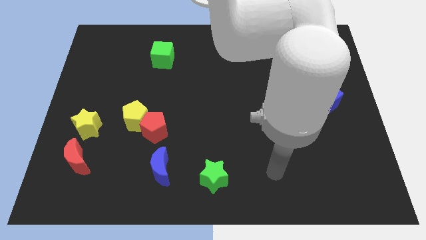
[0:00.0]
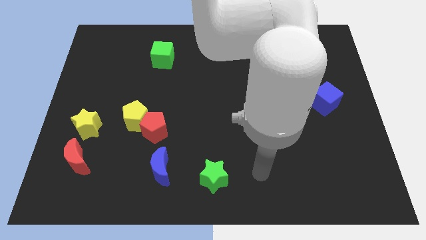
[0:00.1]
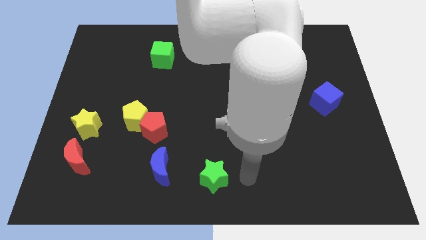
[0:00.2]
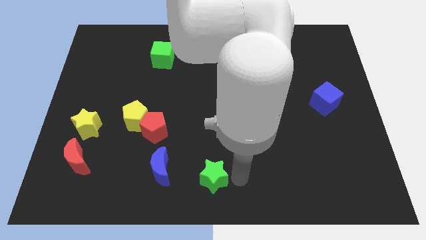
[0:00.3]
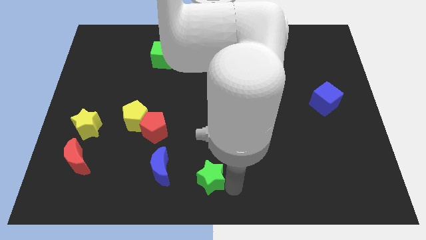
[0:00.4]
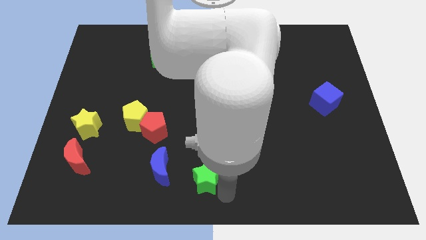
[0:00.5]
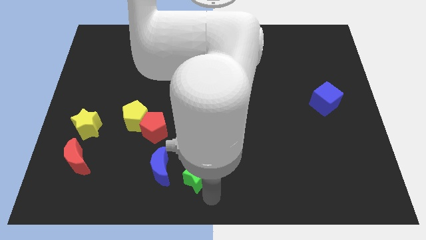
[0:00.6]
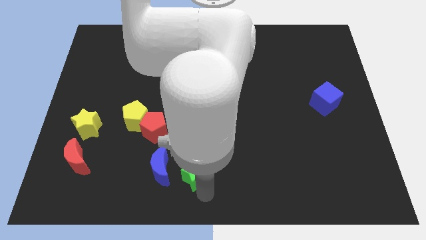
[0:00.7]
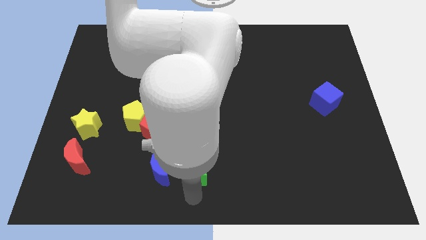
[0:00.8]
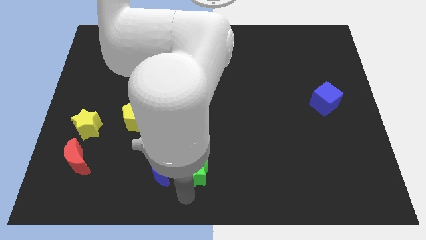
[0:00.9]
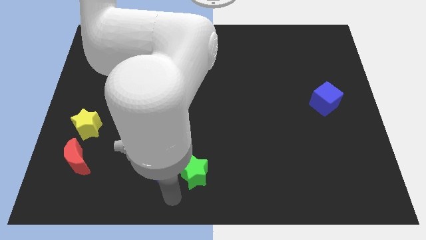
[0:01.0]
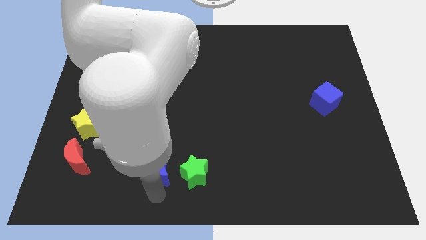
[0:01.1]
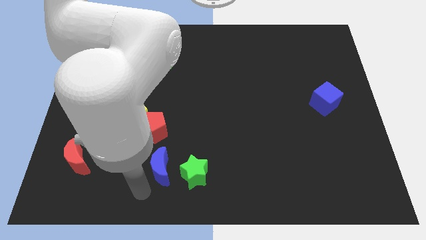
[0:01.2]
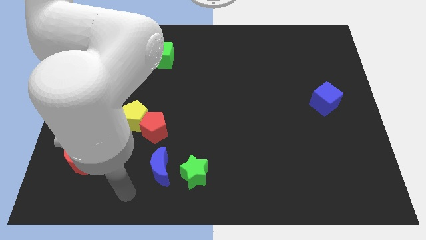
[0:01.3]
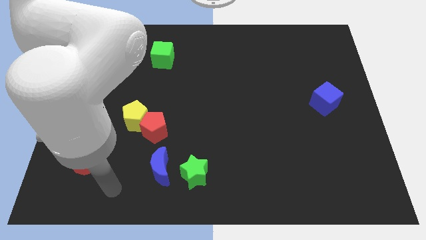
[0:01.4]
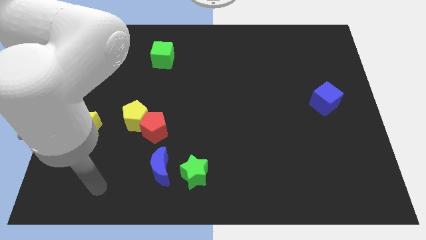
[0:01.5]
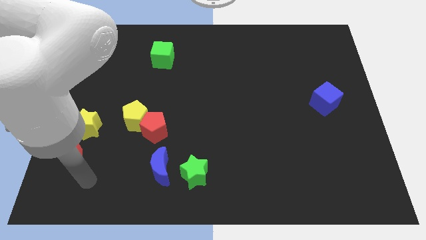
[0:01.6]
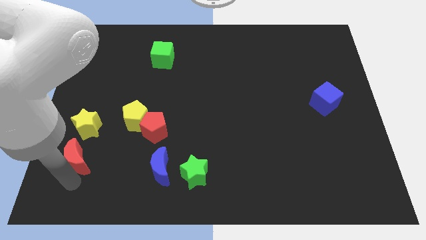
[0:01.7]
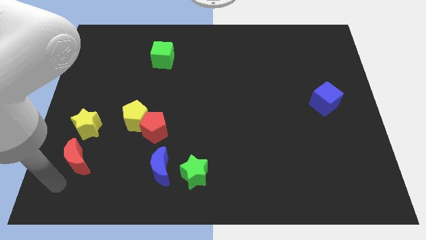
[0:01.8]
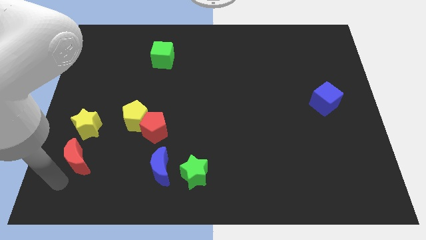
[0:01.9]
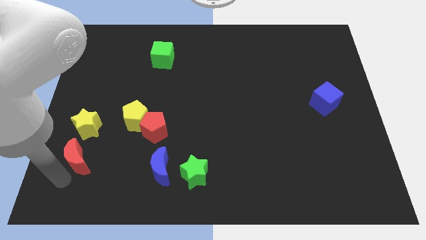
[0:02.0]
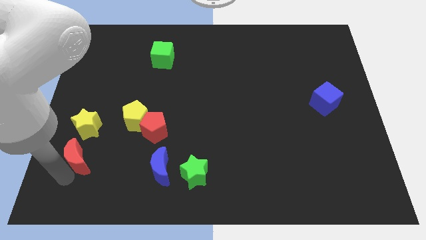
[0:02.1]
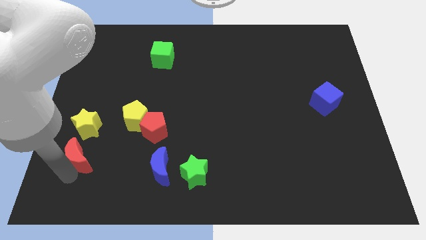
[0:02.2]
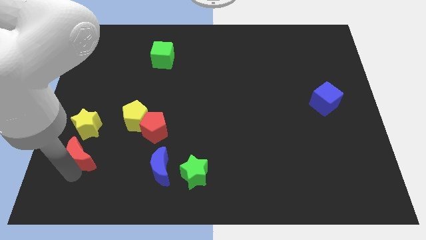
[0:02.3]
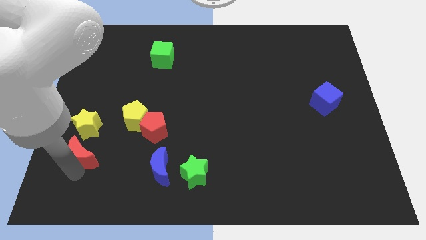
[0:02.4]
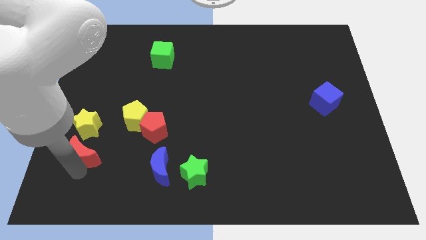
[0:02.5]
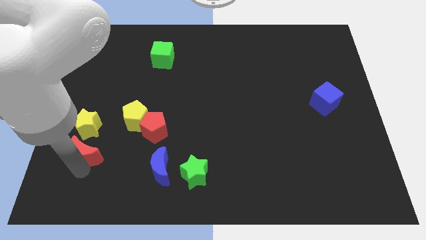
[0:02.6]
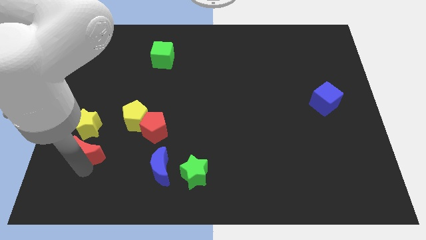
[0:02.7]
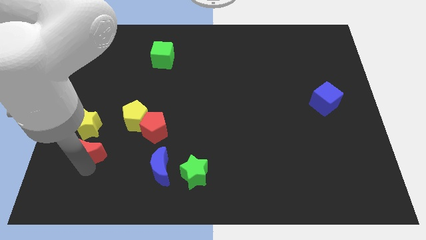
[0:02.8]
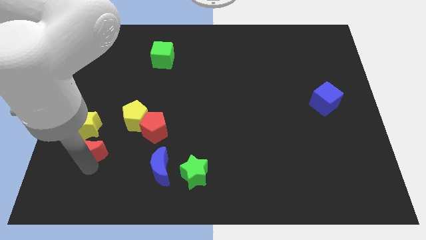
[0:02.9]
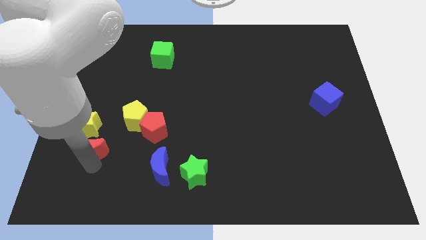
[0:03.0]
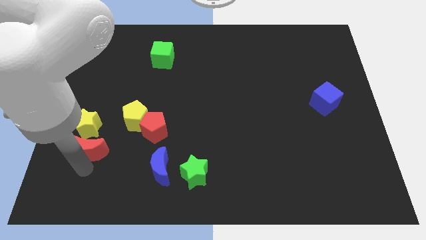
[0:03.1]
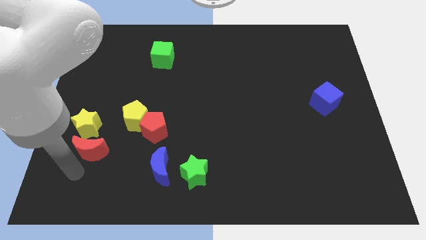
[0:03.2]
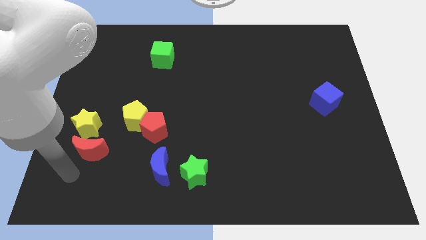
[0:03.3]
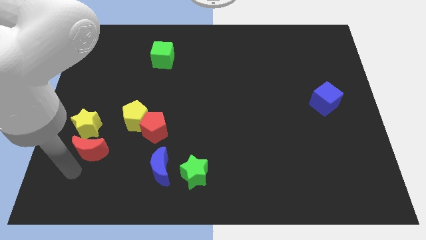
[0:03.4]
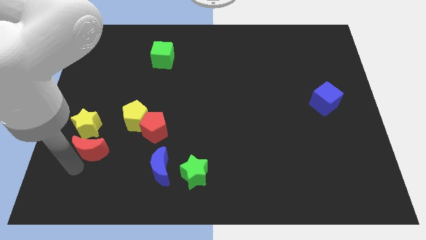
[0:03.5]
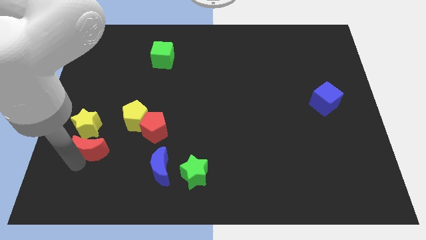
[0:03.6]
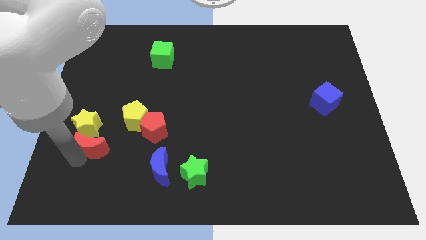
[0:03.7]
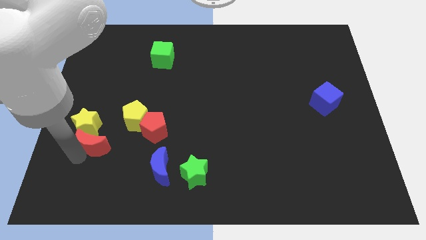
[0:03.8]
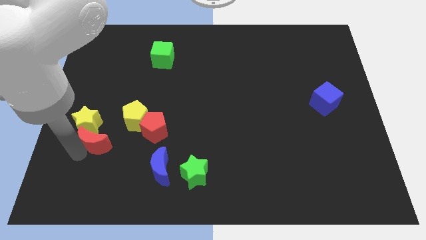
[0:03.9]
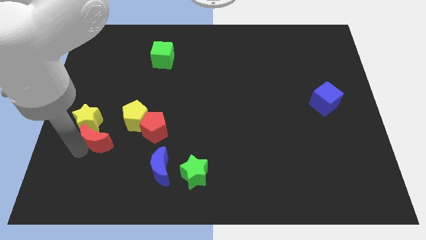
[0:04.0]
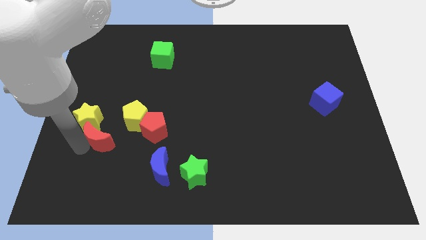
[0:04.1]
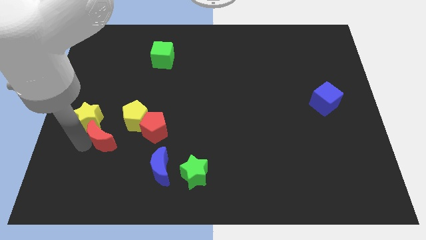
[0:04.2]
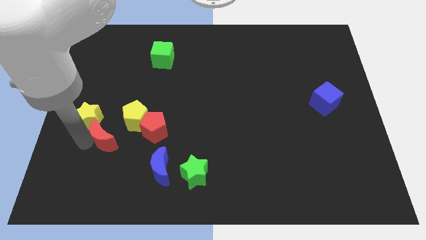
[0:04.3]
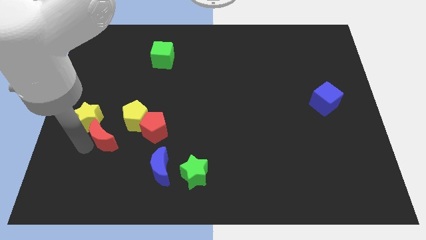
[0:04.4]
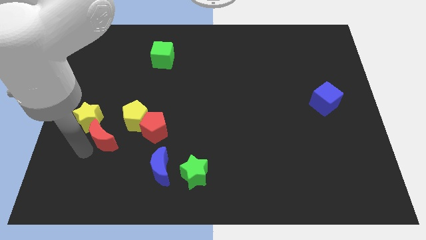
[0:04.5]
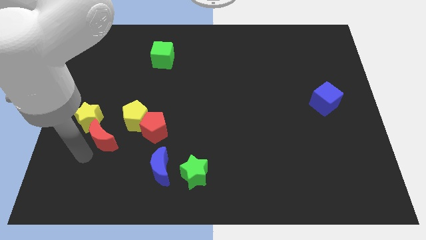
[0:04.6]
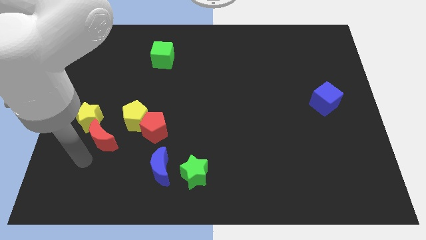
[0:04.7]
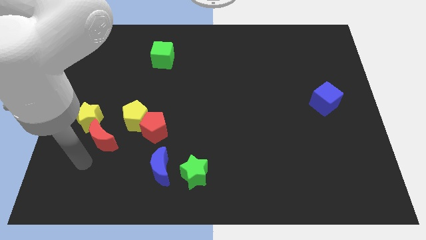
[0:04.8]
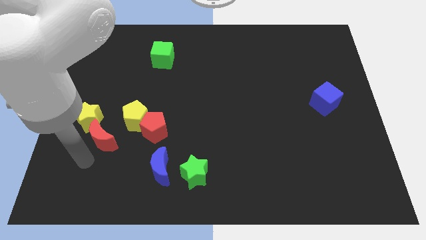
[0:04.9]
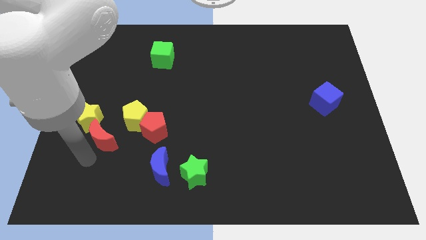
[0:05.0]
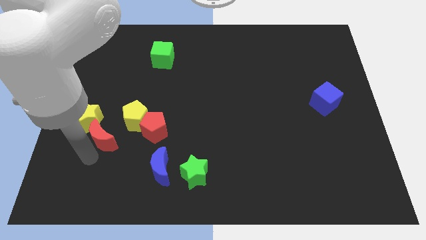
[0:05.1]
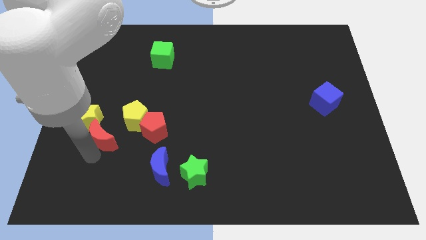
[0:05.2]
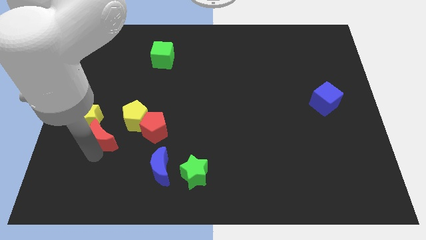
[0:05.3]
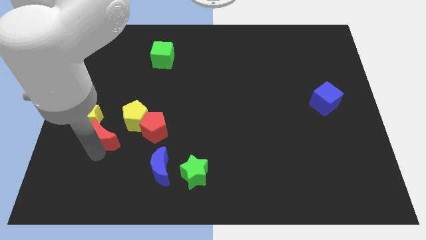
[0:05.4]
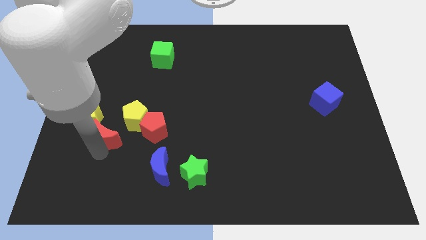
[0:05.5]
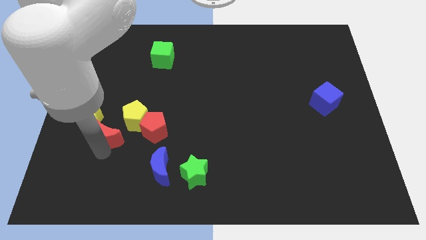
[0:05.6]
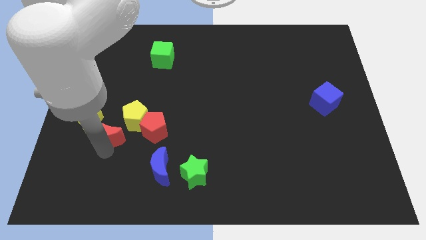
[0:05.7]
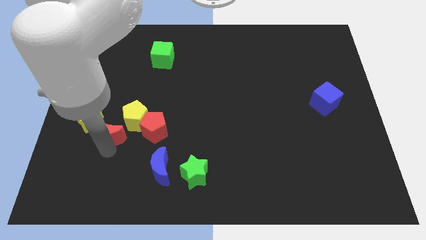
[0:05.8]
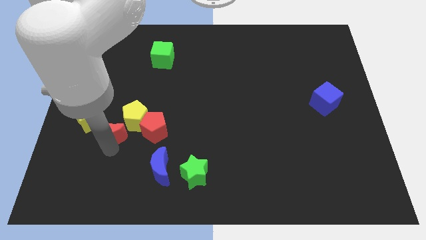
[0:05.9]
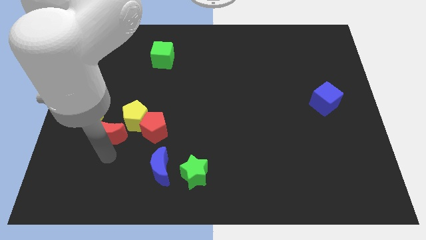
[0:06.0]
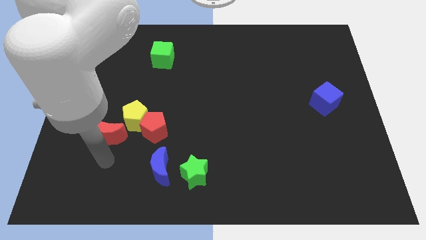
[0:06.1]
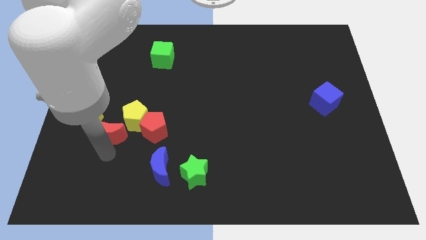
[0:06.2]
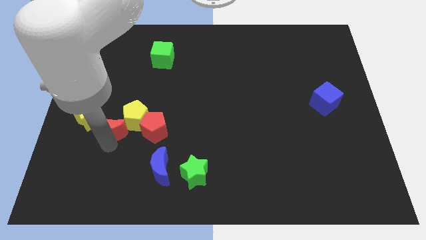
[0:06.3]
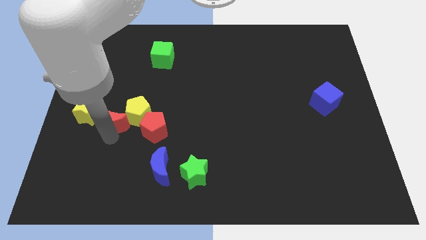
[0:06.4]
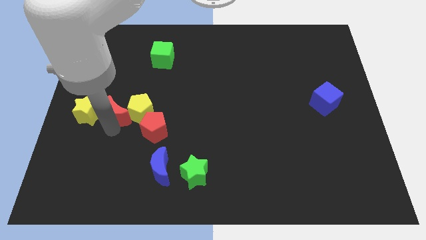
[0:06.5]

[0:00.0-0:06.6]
slide the red moon to the top left of the yellow pentagon
